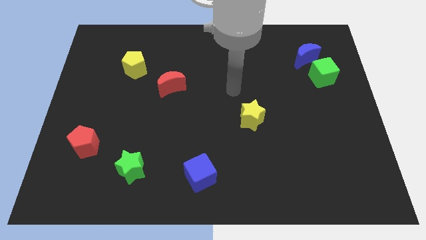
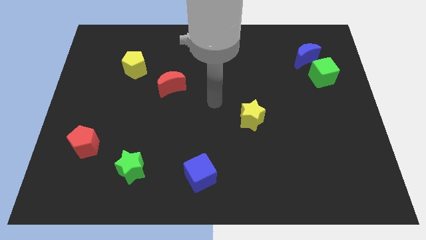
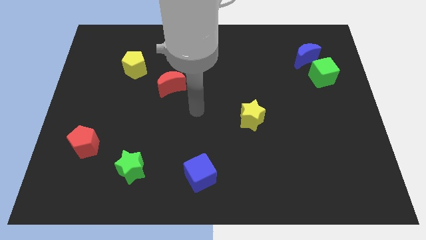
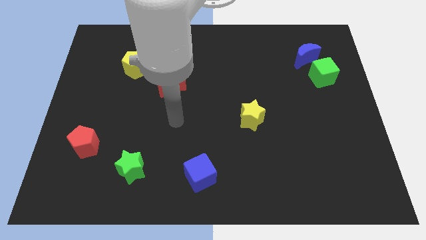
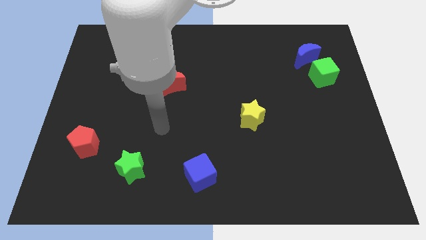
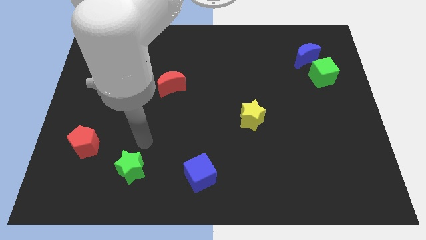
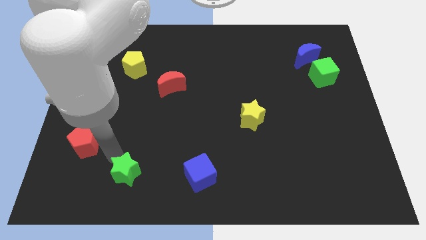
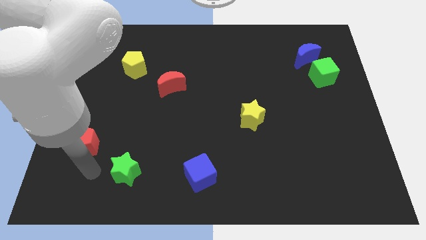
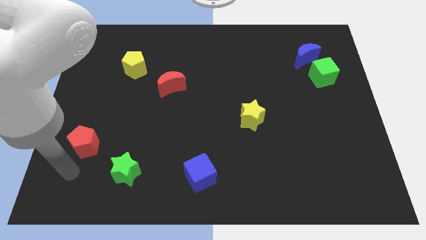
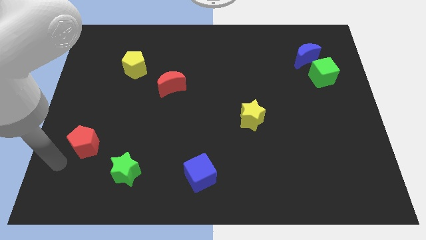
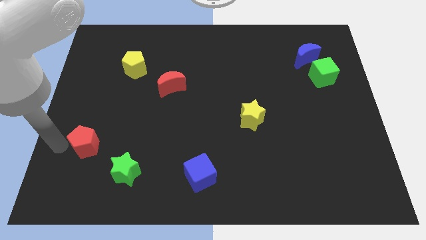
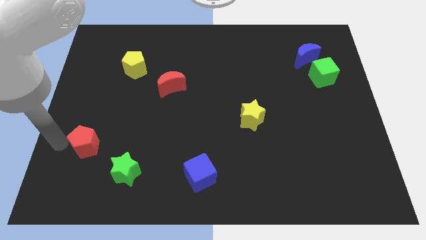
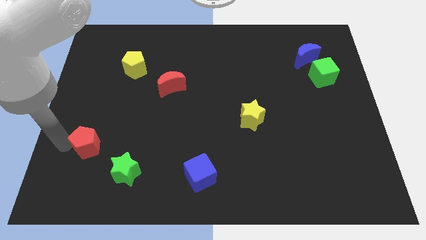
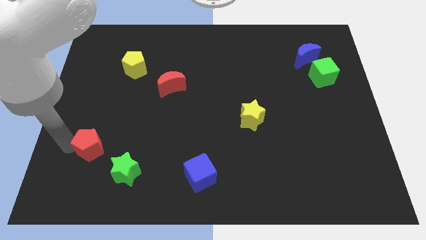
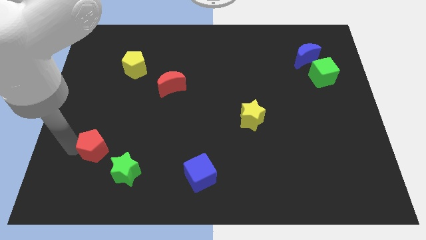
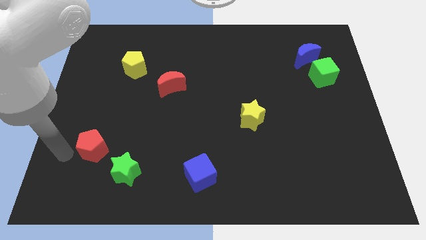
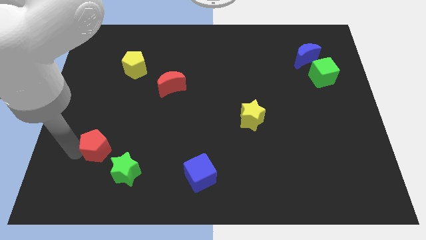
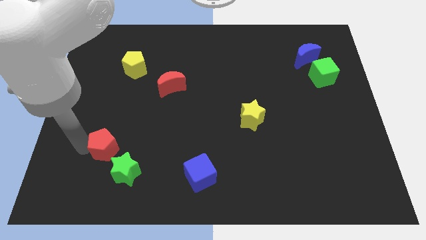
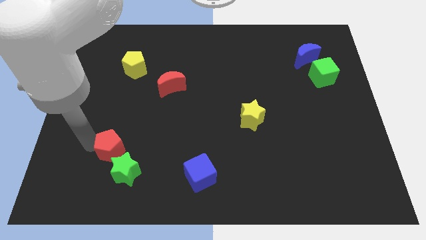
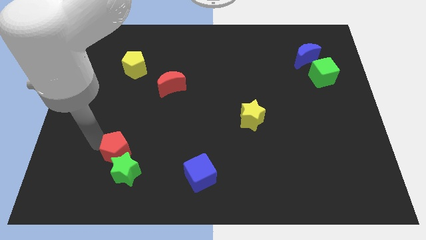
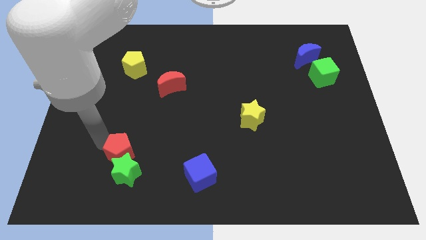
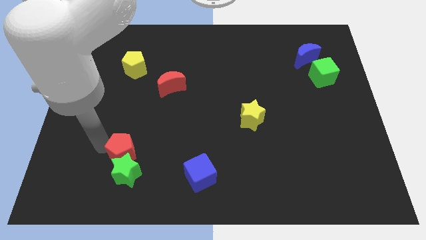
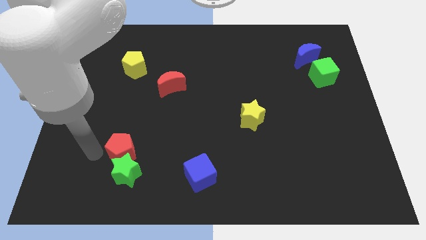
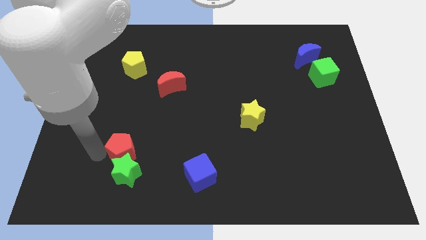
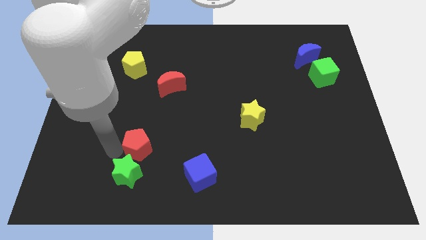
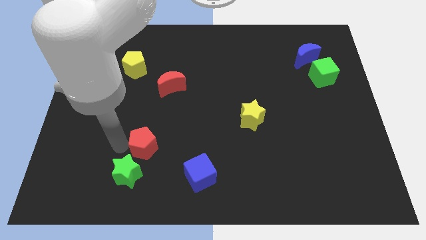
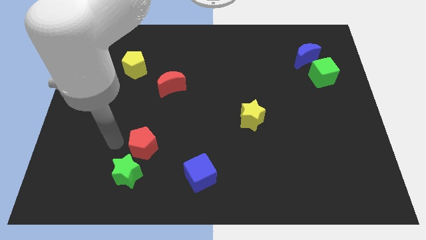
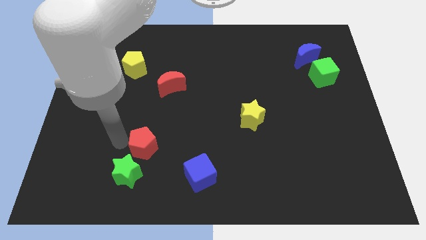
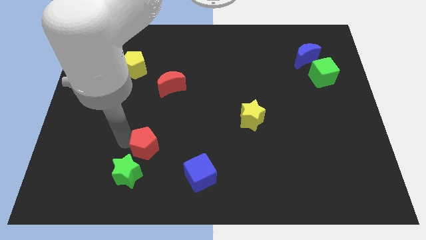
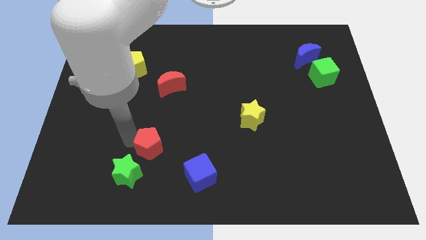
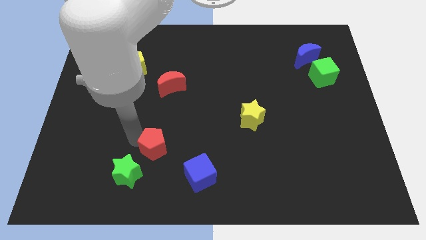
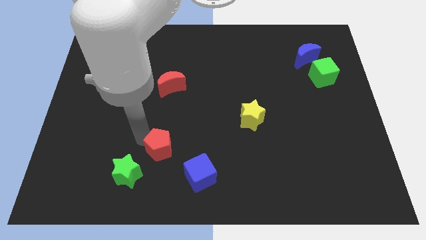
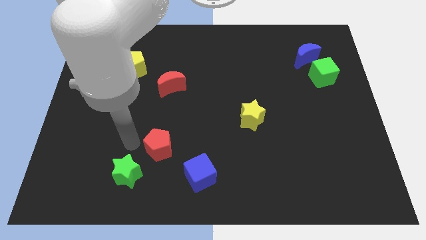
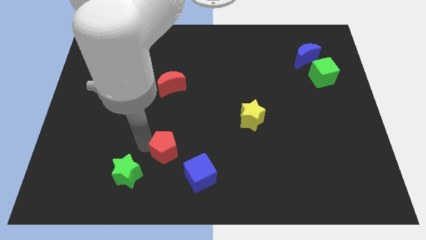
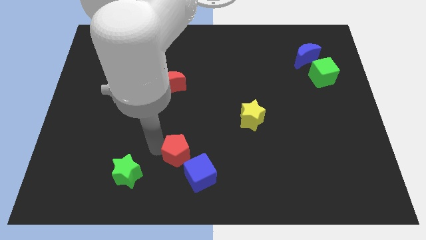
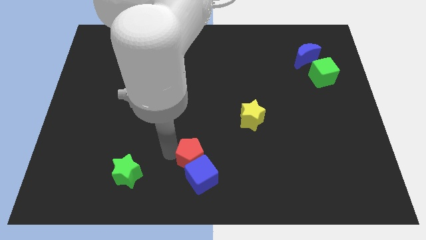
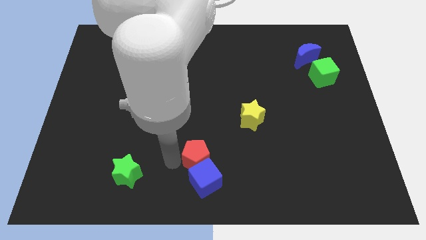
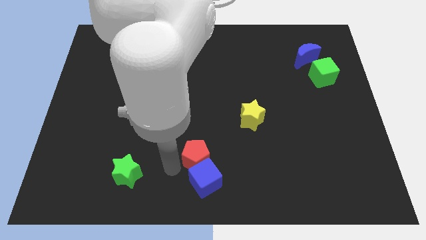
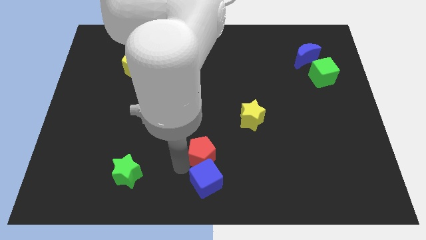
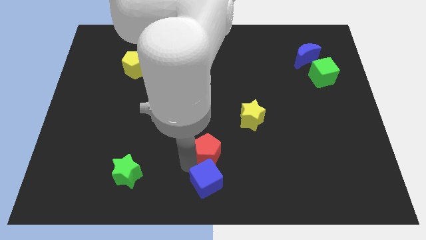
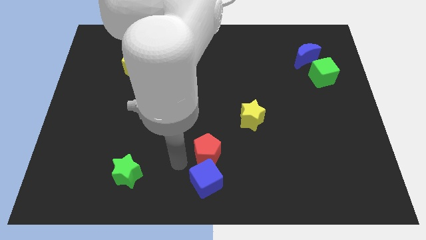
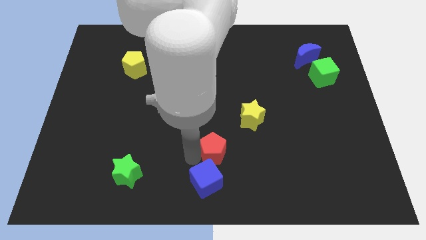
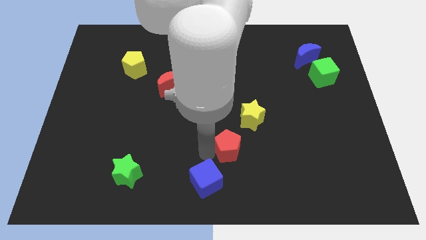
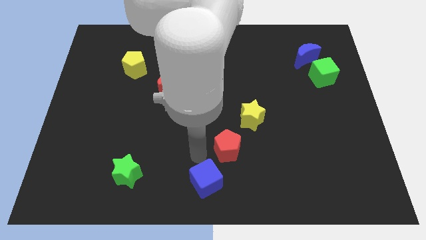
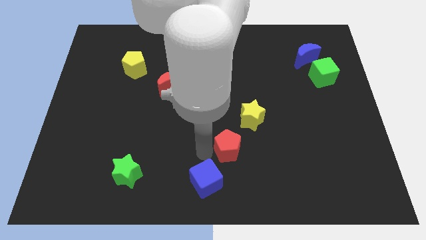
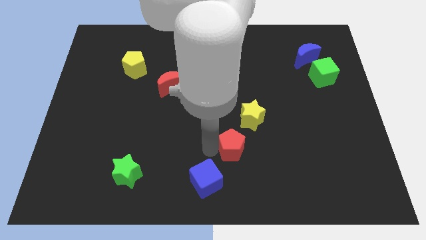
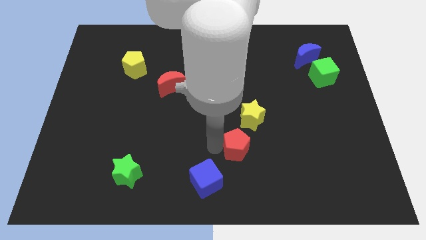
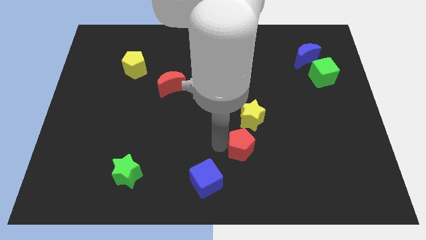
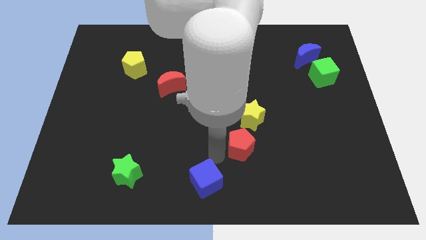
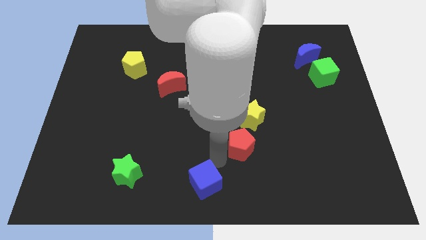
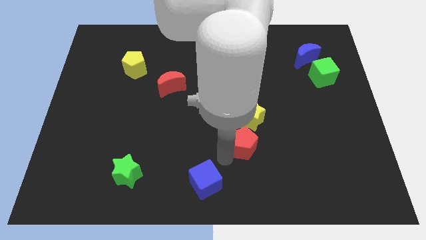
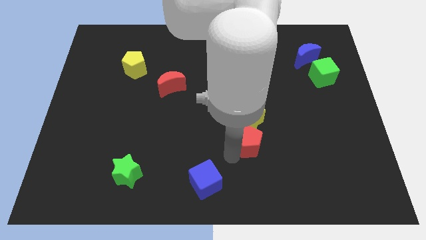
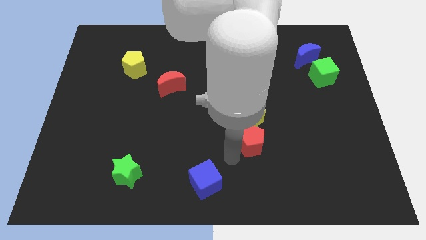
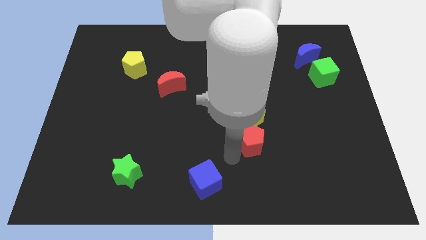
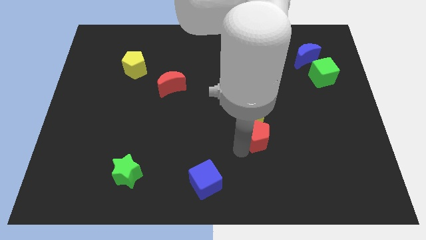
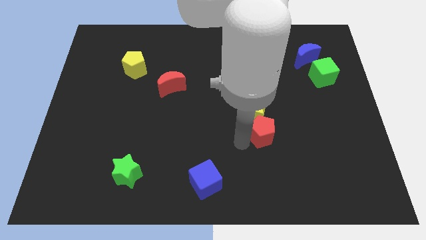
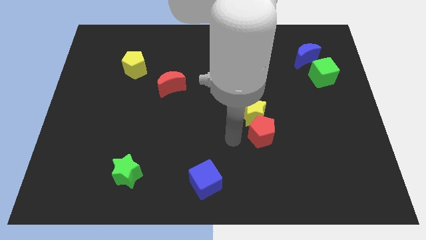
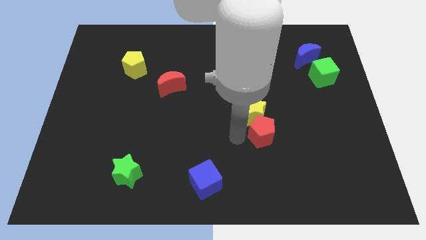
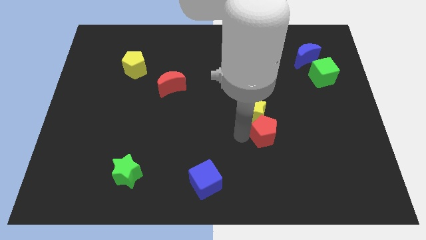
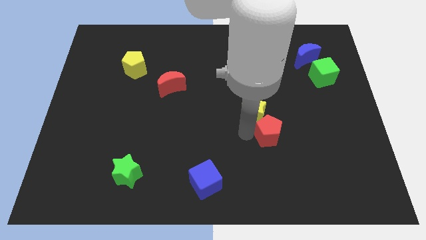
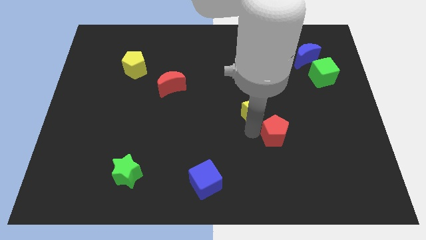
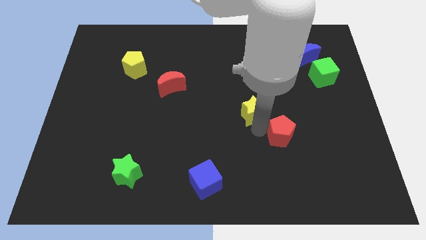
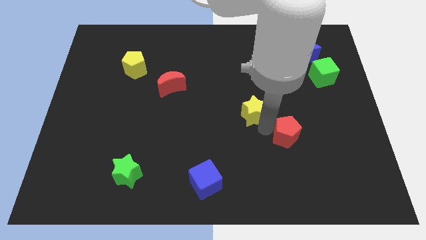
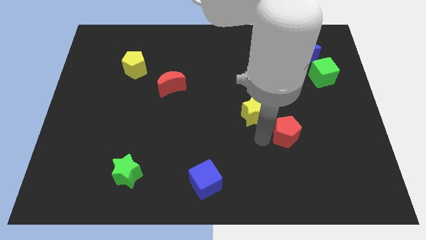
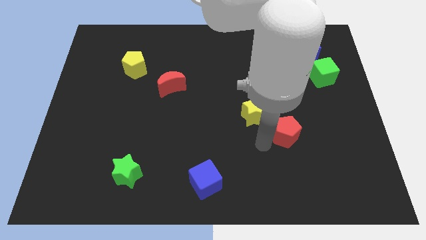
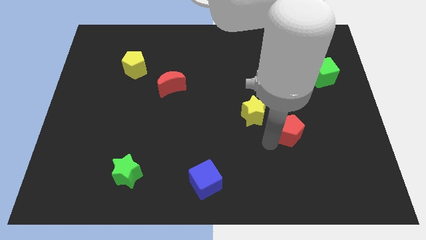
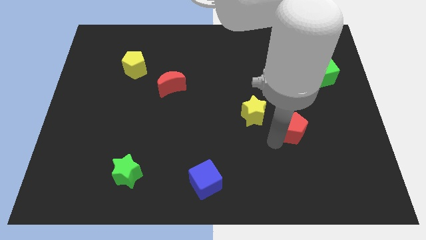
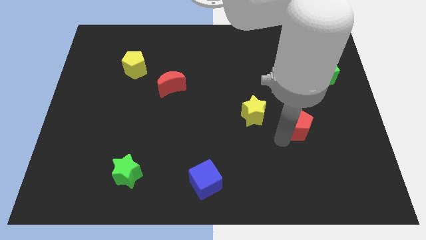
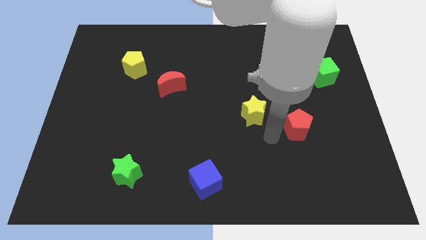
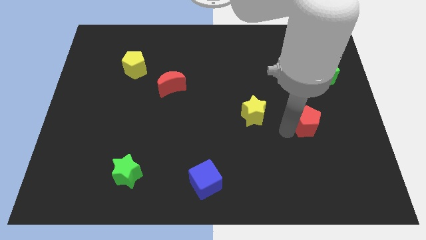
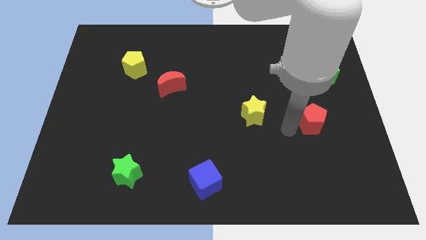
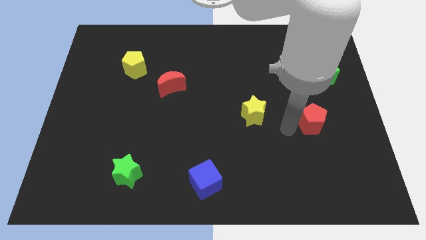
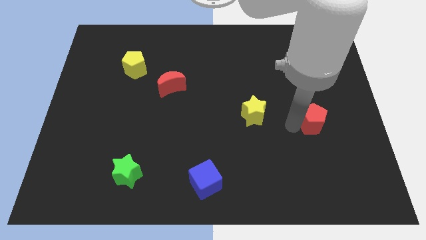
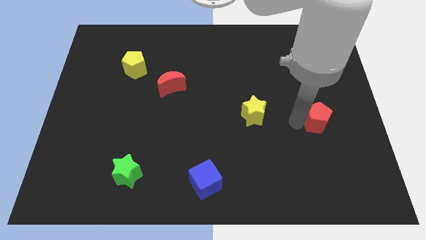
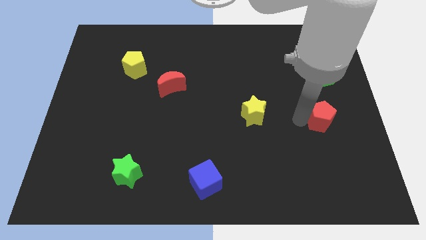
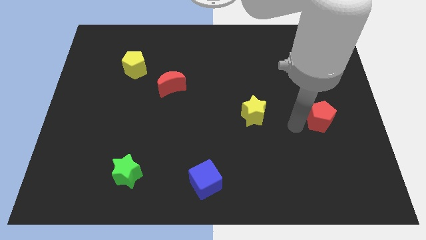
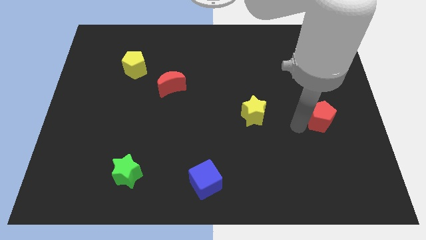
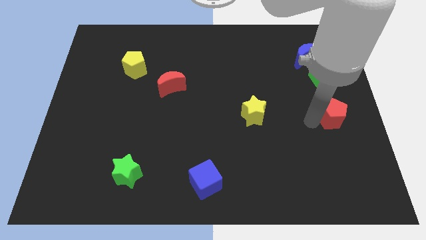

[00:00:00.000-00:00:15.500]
move the red pentagon to the right side
